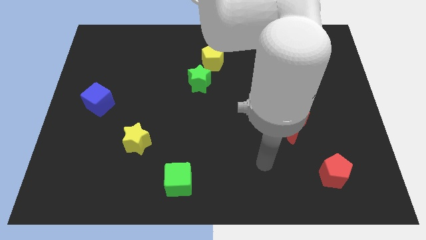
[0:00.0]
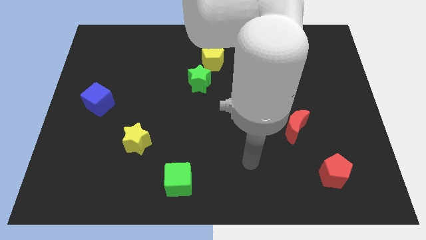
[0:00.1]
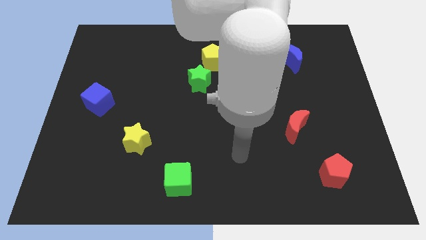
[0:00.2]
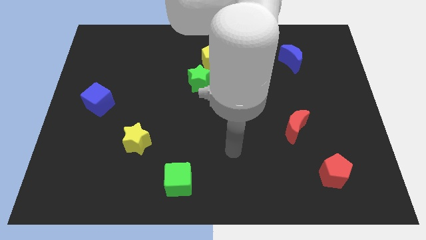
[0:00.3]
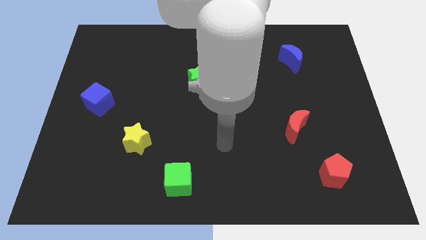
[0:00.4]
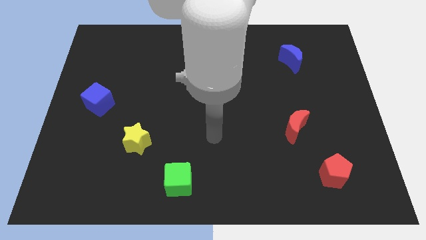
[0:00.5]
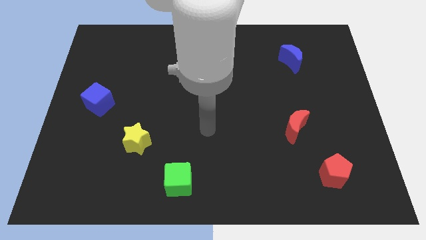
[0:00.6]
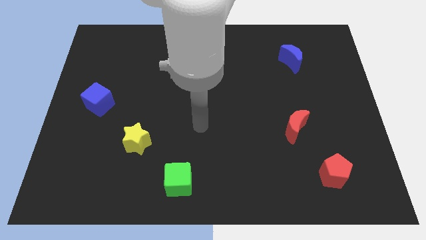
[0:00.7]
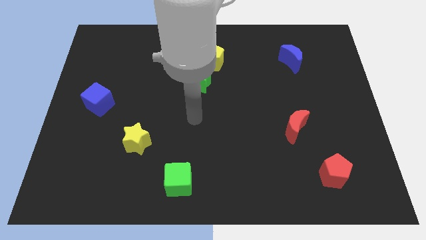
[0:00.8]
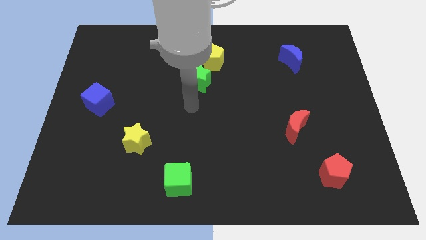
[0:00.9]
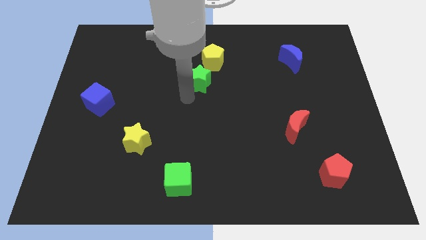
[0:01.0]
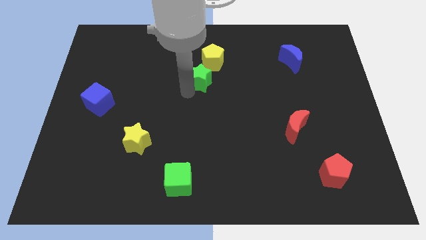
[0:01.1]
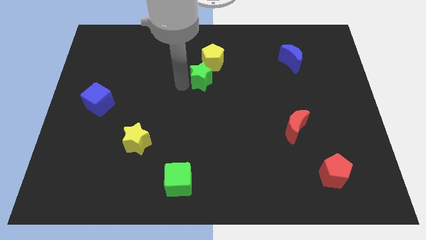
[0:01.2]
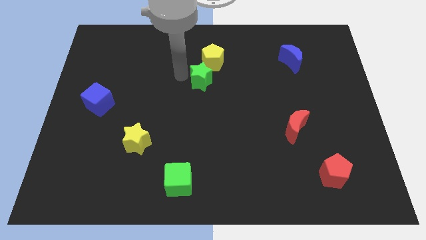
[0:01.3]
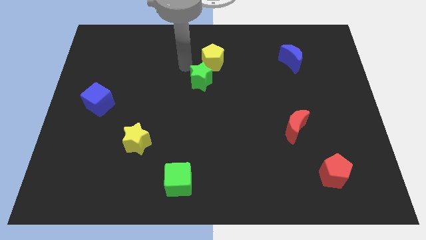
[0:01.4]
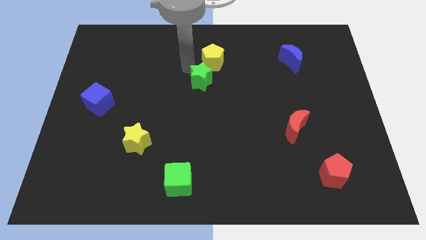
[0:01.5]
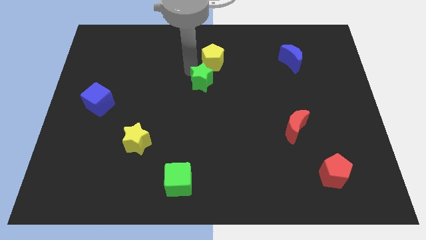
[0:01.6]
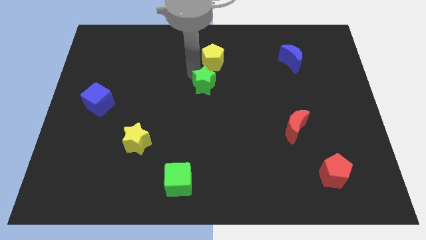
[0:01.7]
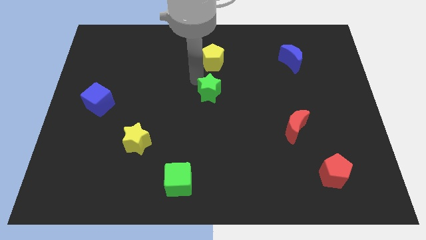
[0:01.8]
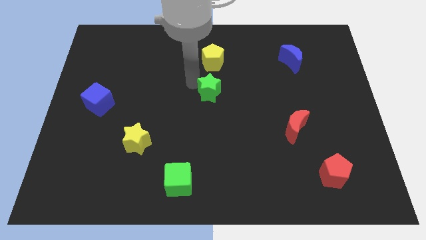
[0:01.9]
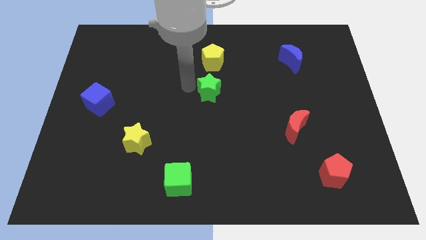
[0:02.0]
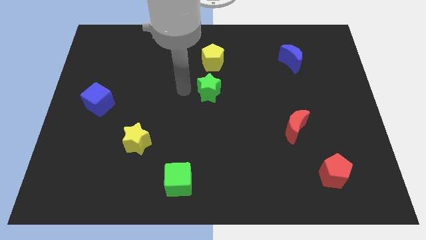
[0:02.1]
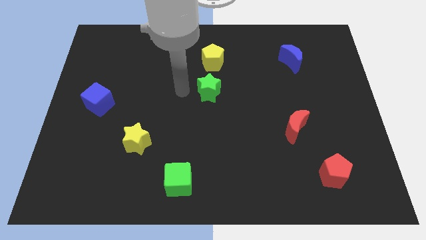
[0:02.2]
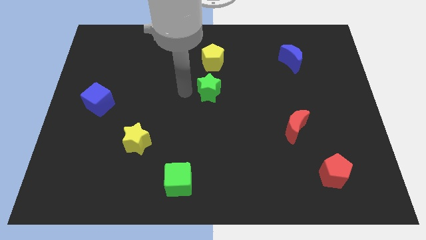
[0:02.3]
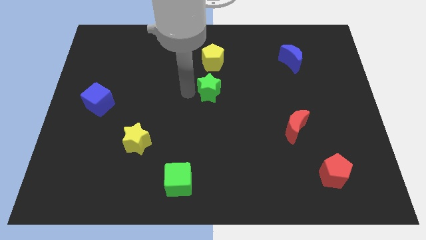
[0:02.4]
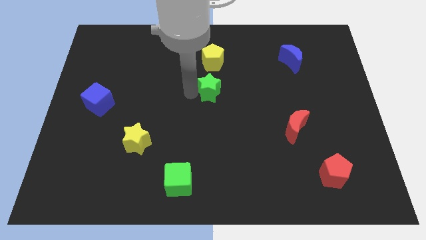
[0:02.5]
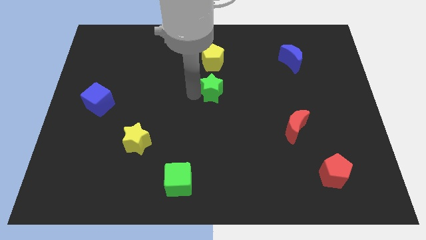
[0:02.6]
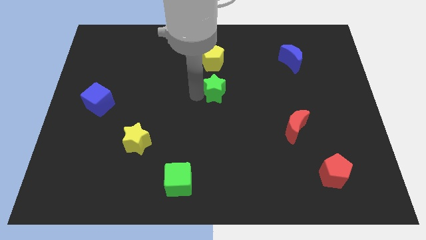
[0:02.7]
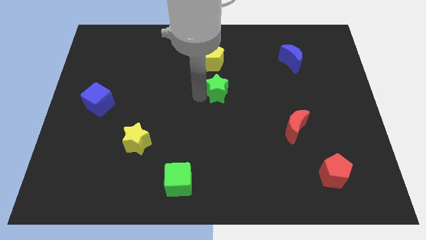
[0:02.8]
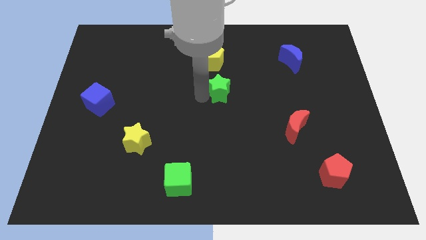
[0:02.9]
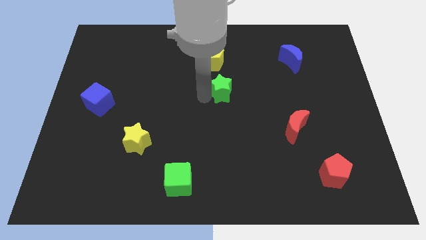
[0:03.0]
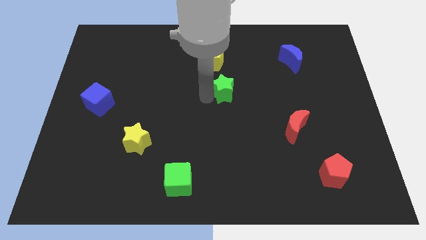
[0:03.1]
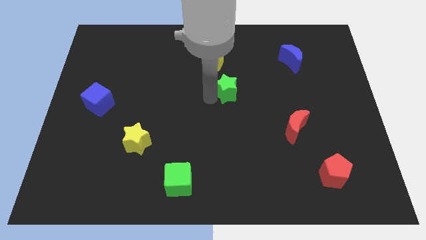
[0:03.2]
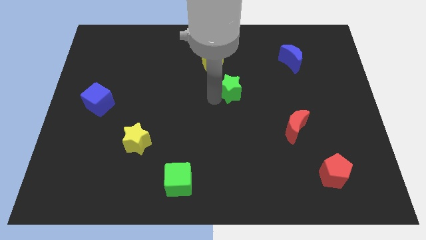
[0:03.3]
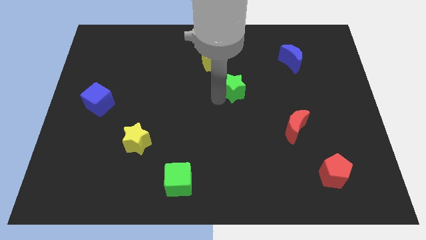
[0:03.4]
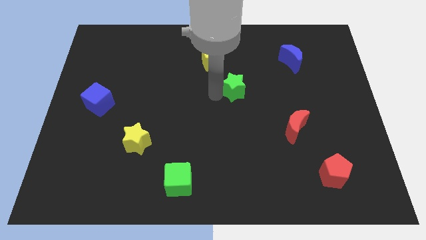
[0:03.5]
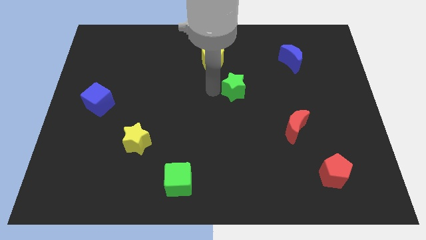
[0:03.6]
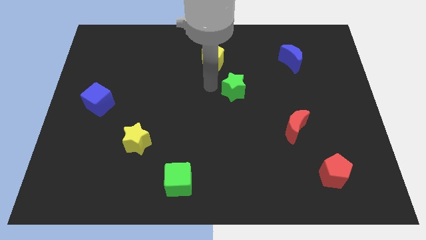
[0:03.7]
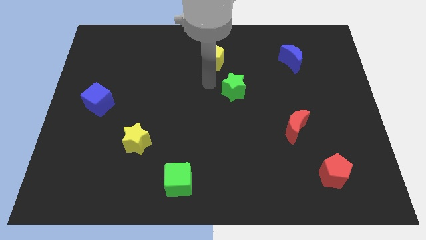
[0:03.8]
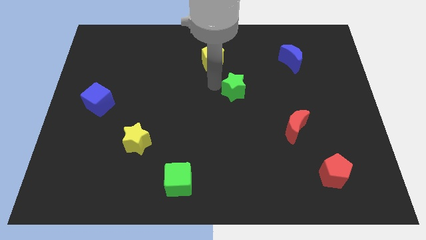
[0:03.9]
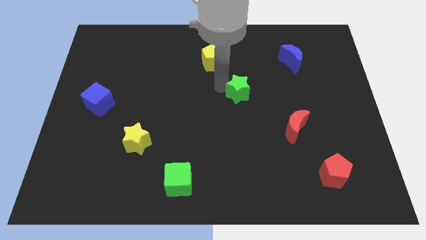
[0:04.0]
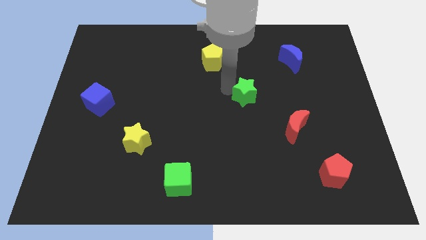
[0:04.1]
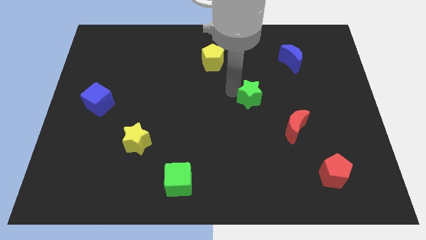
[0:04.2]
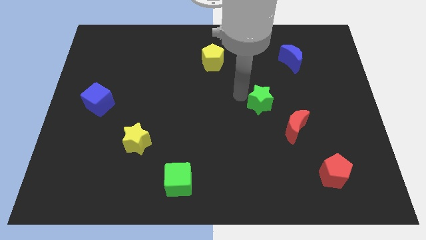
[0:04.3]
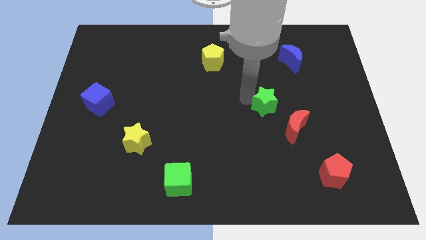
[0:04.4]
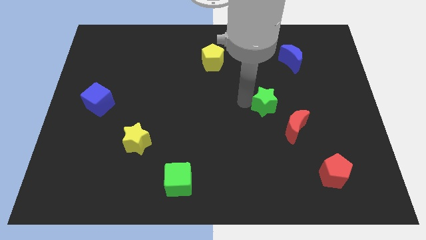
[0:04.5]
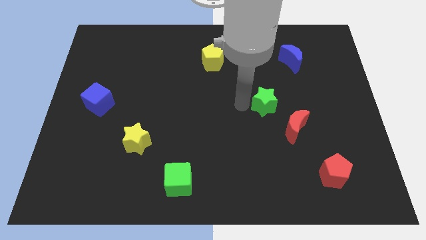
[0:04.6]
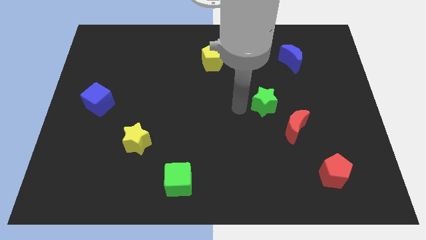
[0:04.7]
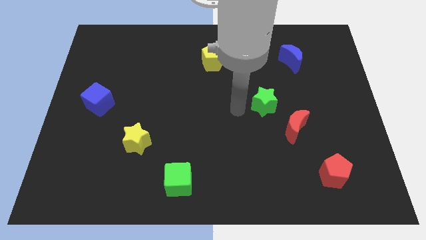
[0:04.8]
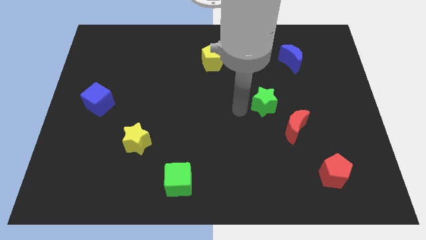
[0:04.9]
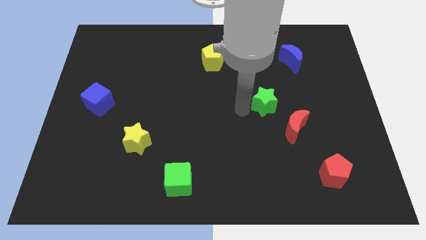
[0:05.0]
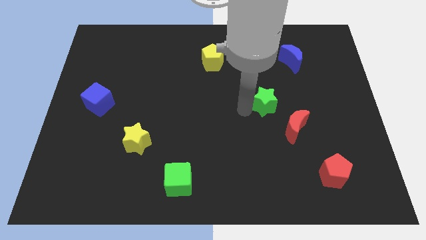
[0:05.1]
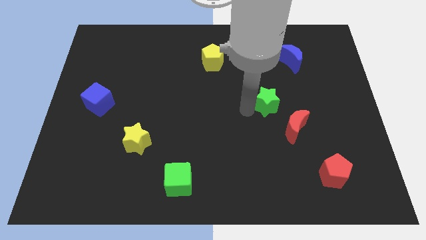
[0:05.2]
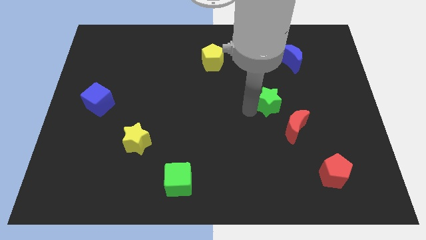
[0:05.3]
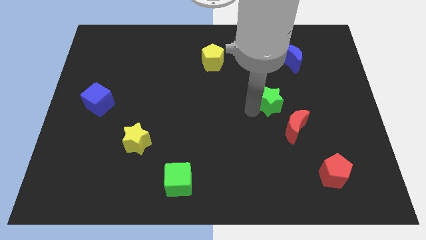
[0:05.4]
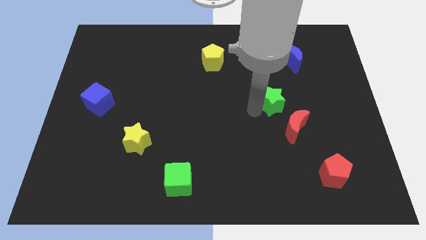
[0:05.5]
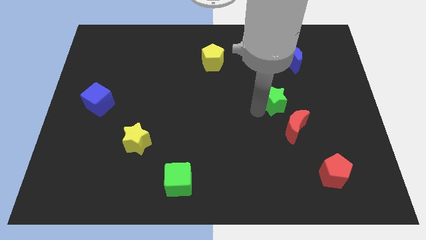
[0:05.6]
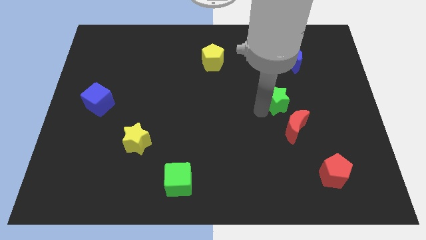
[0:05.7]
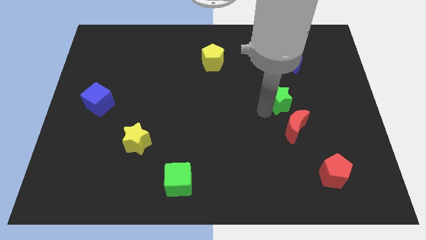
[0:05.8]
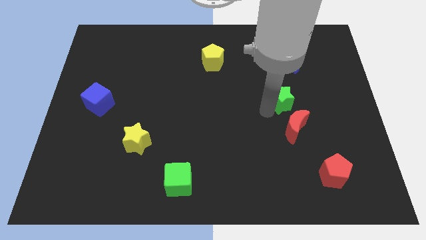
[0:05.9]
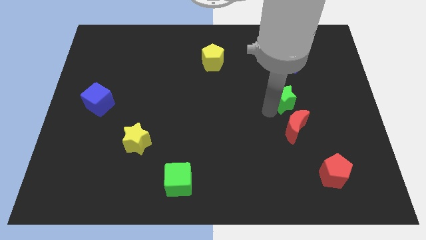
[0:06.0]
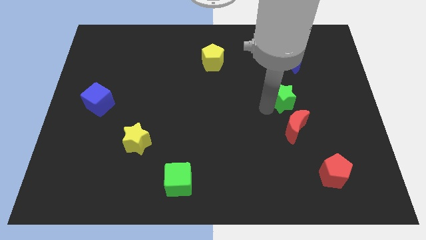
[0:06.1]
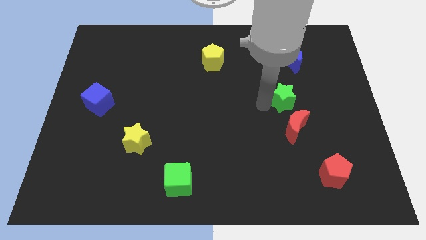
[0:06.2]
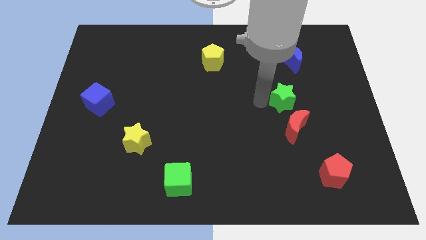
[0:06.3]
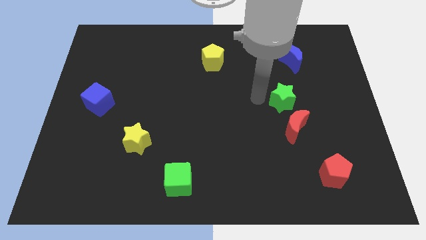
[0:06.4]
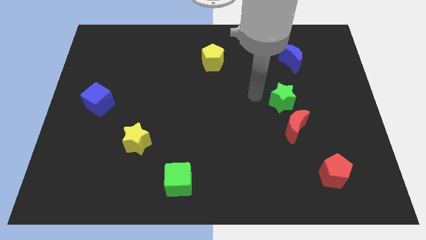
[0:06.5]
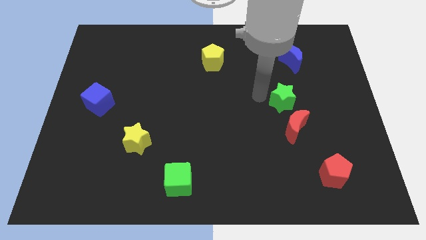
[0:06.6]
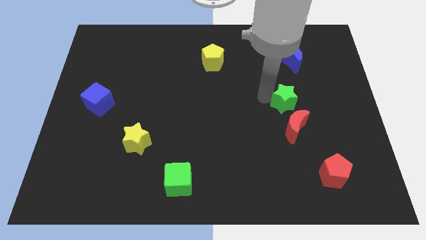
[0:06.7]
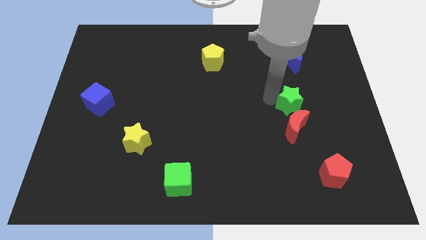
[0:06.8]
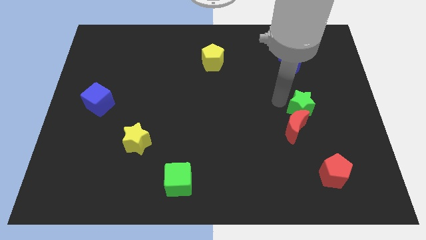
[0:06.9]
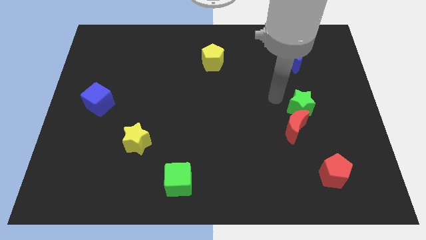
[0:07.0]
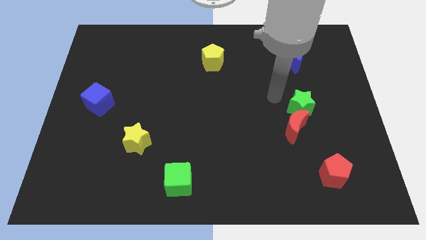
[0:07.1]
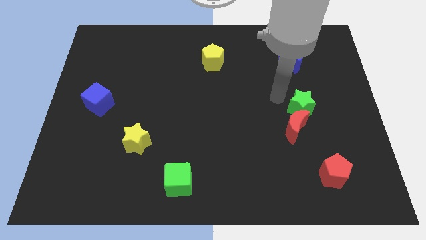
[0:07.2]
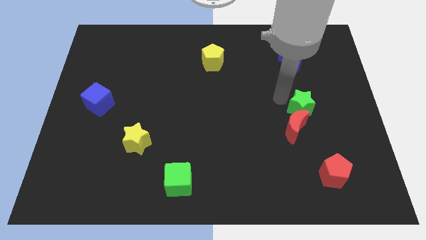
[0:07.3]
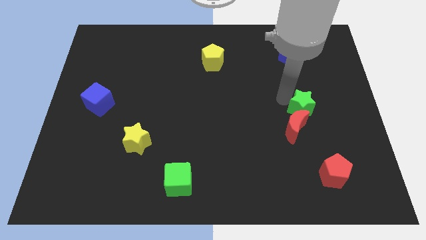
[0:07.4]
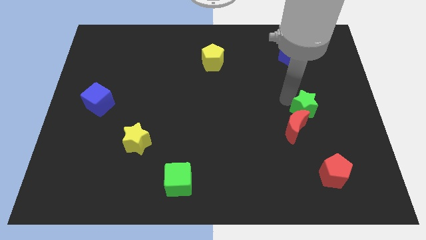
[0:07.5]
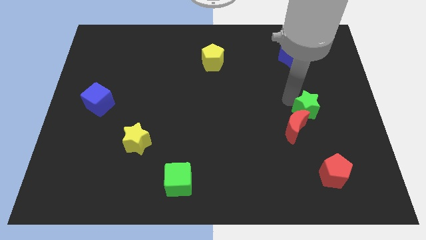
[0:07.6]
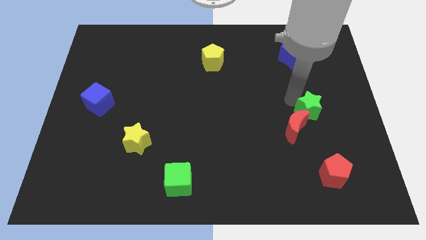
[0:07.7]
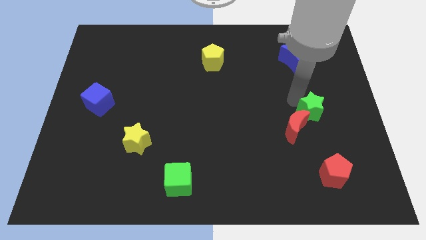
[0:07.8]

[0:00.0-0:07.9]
slide the green star right of the red moon
